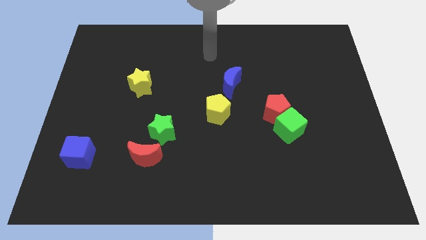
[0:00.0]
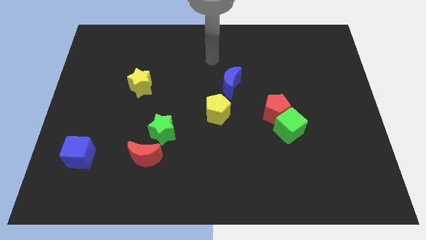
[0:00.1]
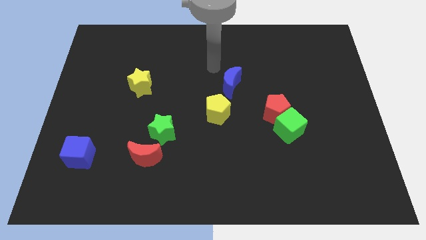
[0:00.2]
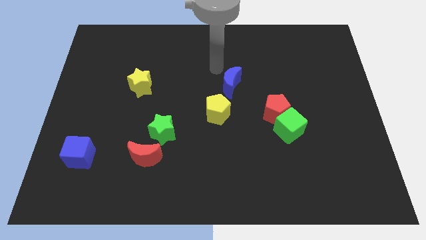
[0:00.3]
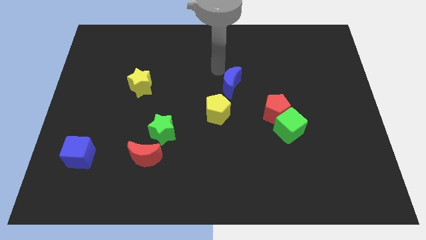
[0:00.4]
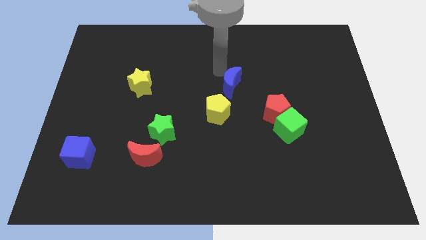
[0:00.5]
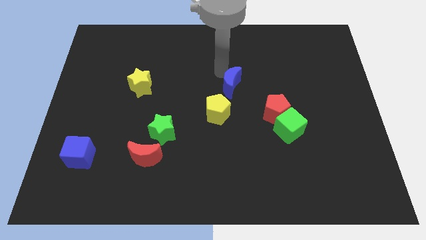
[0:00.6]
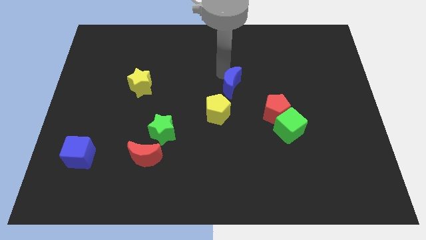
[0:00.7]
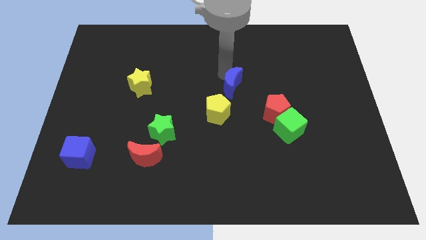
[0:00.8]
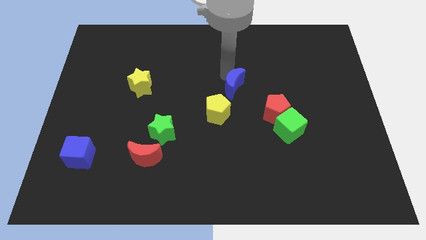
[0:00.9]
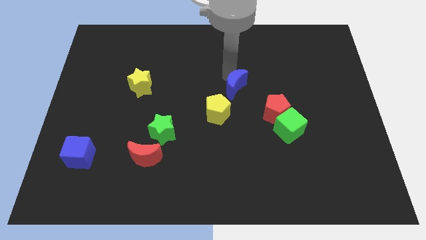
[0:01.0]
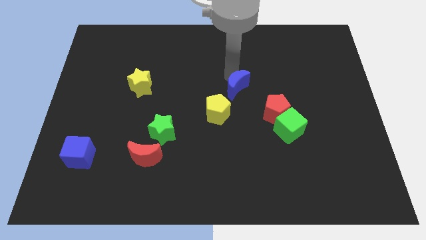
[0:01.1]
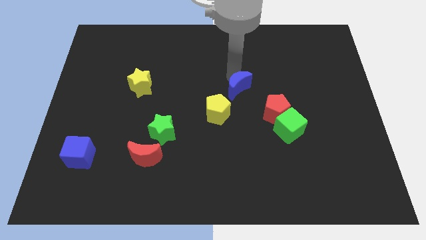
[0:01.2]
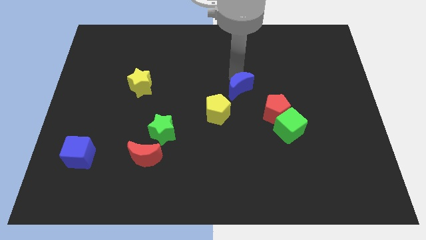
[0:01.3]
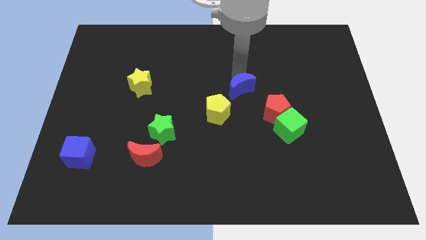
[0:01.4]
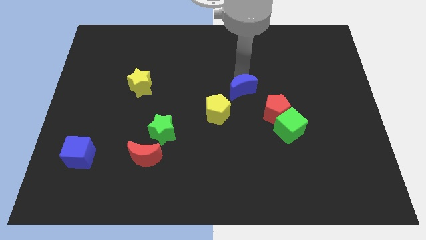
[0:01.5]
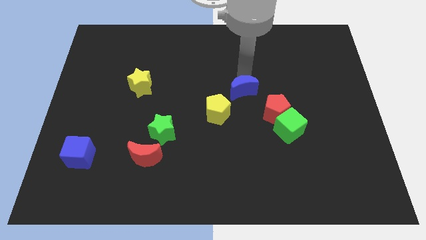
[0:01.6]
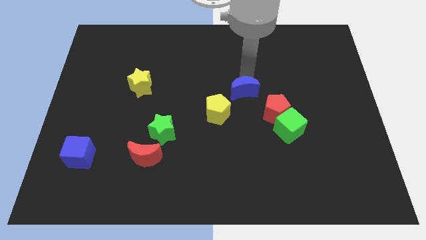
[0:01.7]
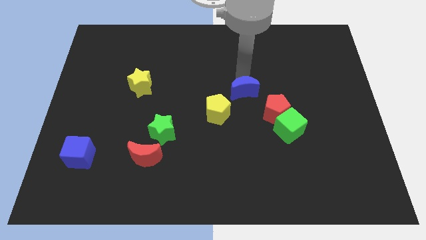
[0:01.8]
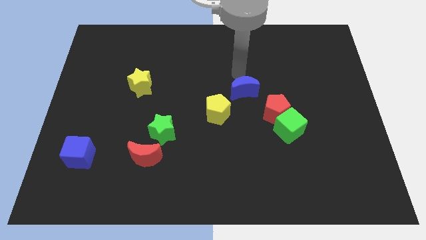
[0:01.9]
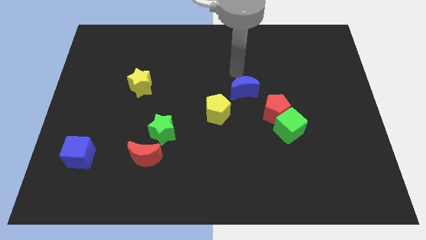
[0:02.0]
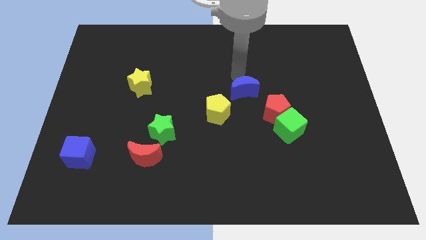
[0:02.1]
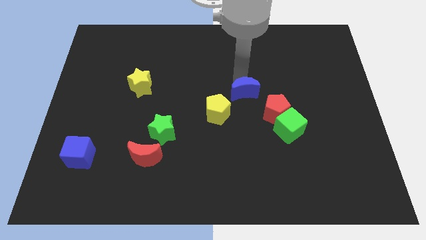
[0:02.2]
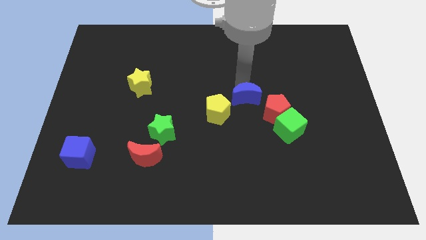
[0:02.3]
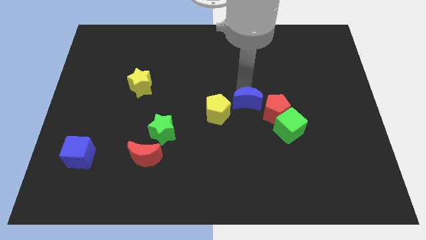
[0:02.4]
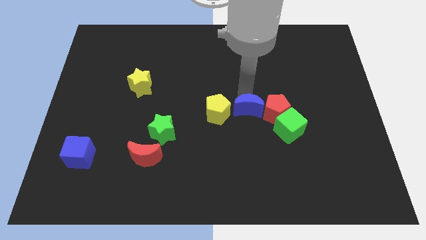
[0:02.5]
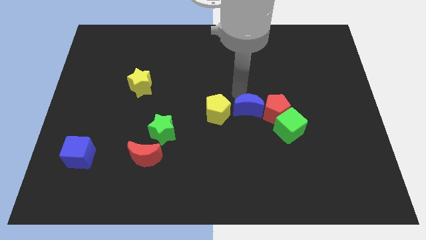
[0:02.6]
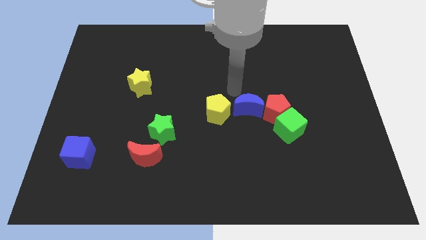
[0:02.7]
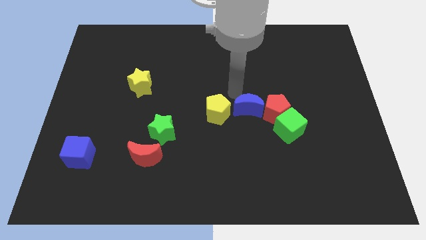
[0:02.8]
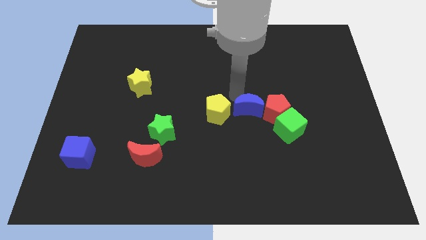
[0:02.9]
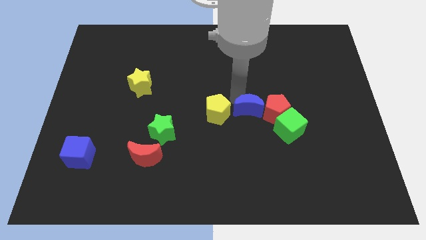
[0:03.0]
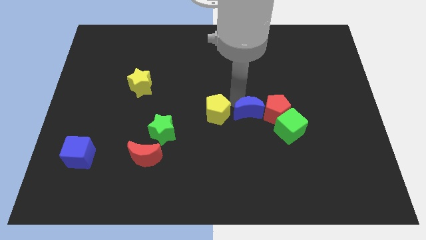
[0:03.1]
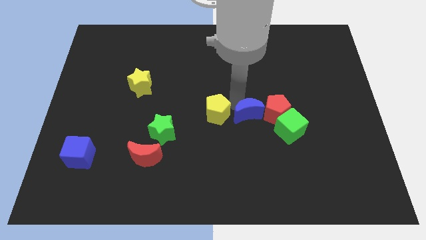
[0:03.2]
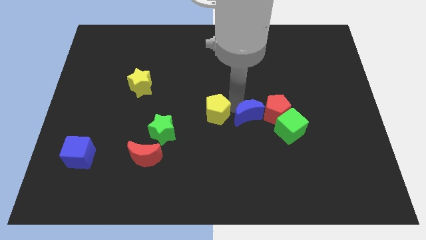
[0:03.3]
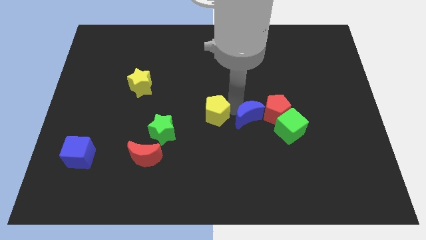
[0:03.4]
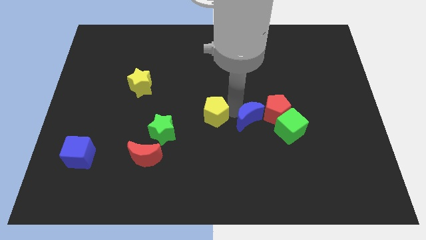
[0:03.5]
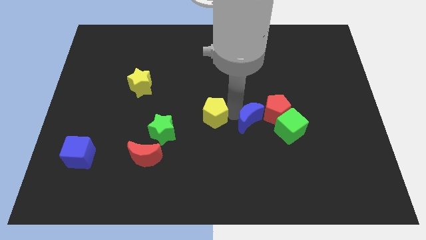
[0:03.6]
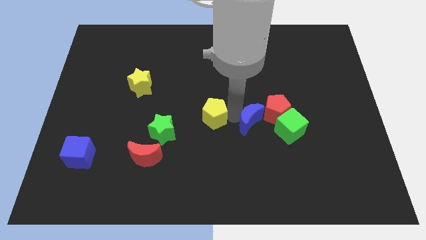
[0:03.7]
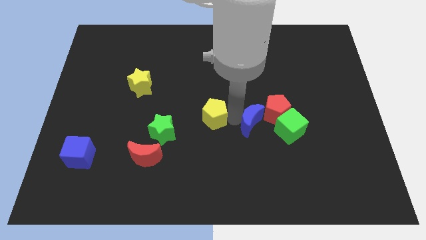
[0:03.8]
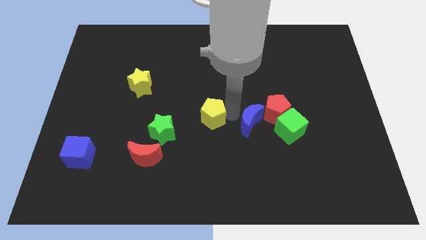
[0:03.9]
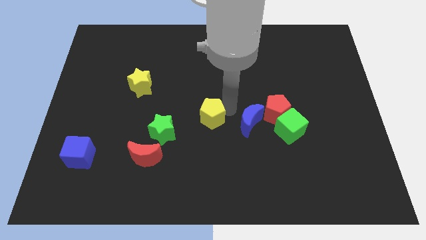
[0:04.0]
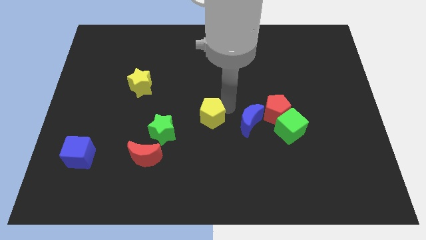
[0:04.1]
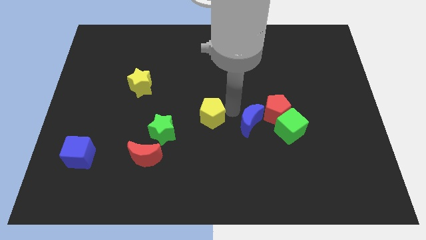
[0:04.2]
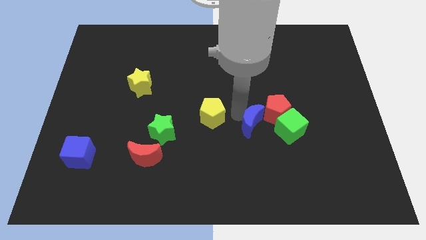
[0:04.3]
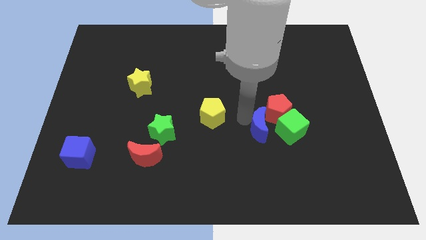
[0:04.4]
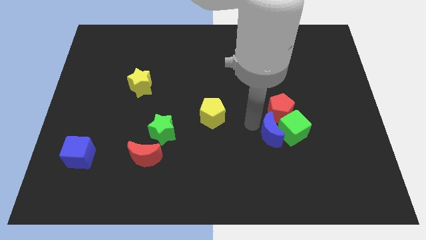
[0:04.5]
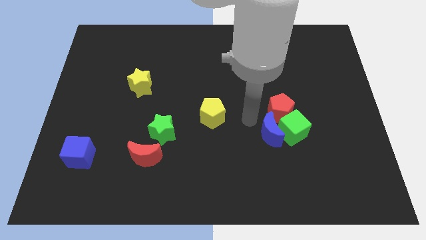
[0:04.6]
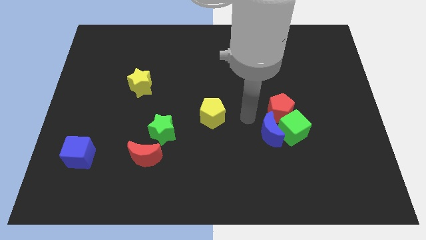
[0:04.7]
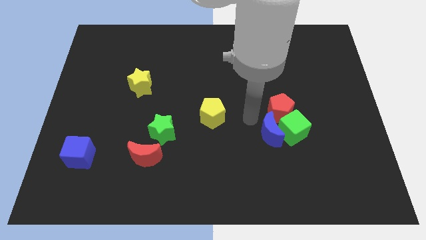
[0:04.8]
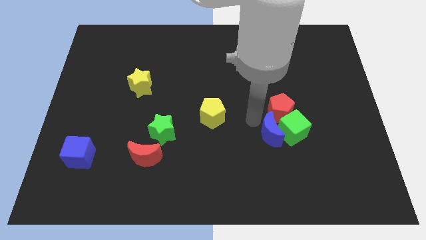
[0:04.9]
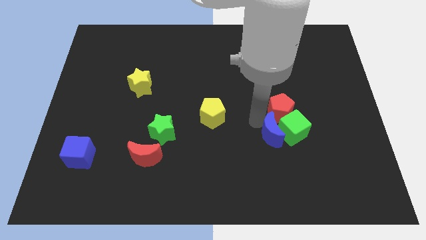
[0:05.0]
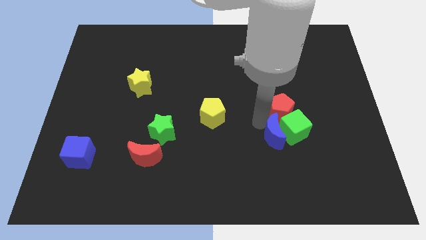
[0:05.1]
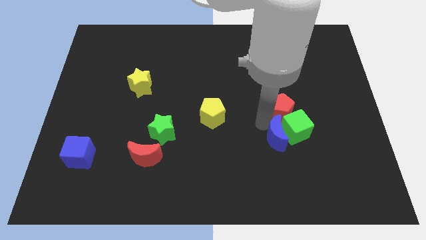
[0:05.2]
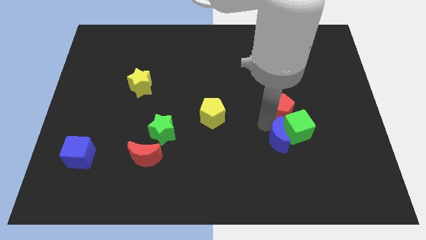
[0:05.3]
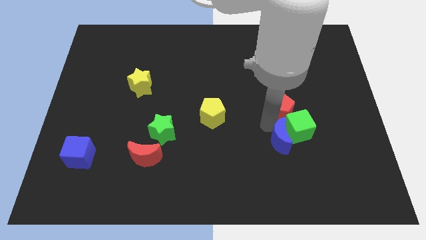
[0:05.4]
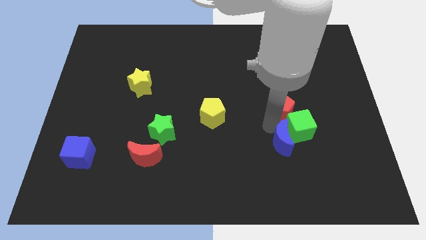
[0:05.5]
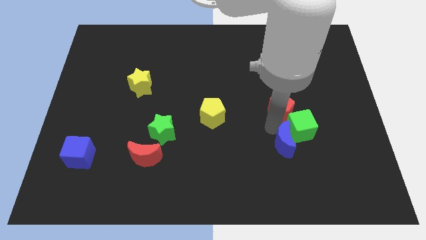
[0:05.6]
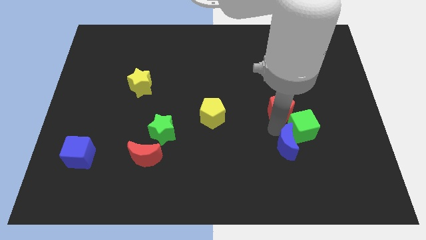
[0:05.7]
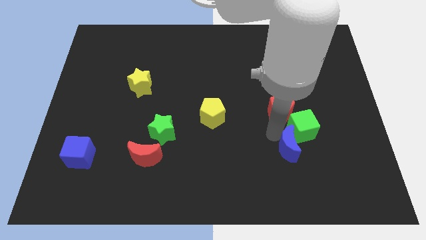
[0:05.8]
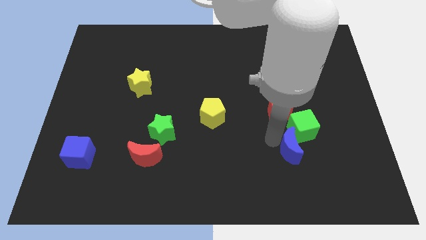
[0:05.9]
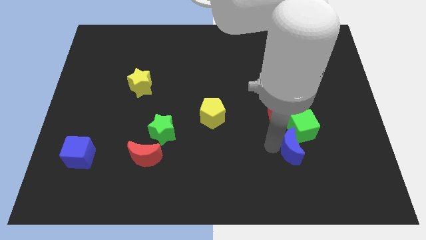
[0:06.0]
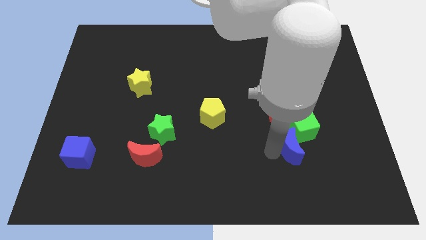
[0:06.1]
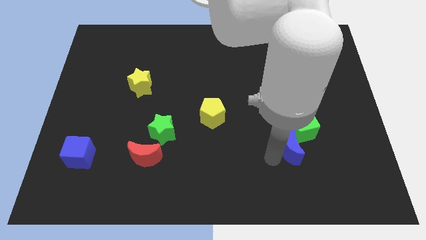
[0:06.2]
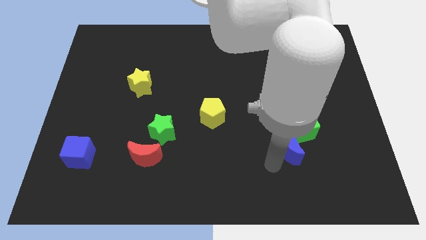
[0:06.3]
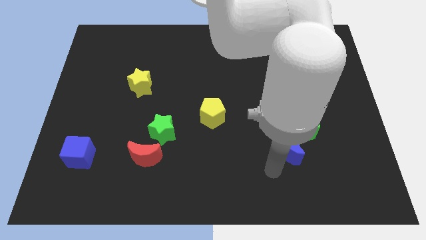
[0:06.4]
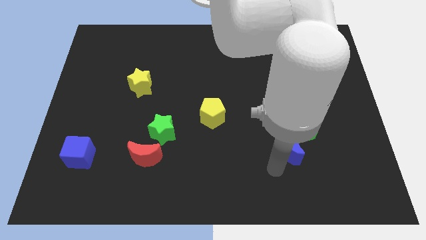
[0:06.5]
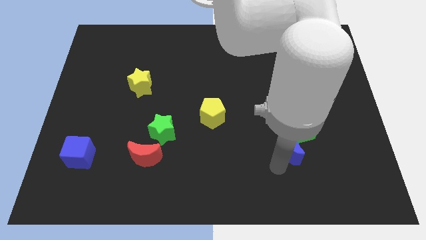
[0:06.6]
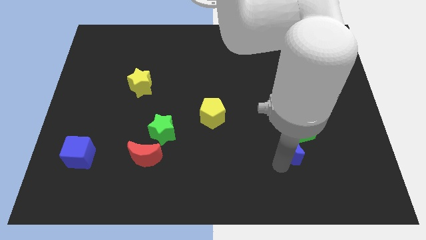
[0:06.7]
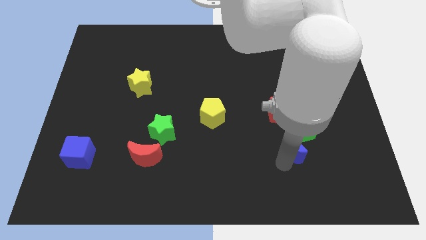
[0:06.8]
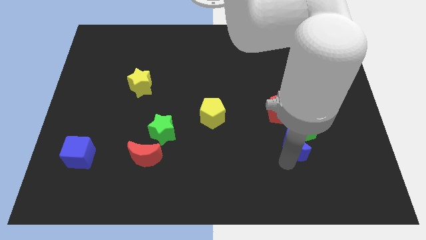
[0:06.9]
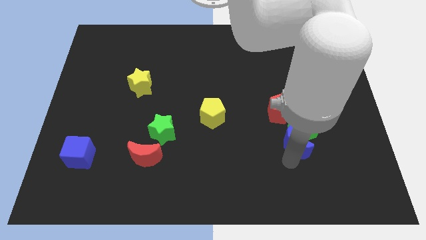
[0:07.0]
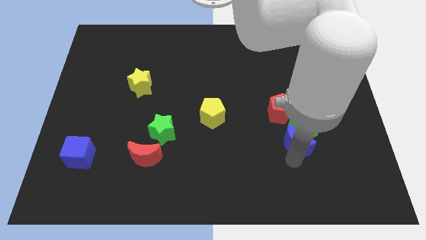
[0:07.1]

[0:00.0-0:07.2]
put the blue moon to the bottom right of the red pentagon
